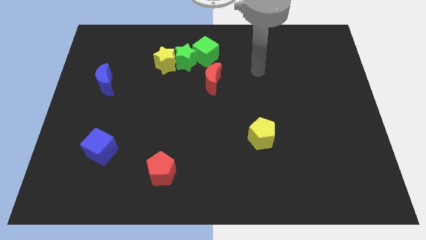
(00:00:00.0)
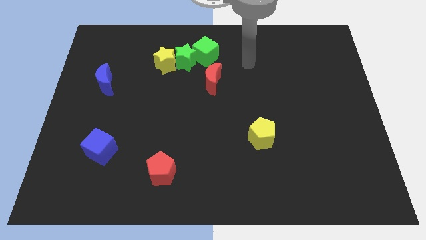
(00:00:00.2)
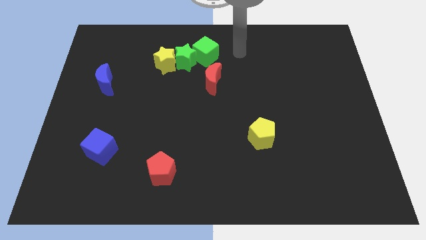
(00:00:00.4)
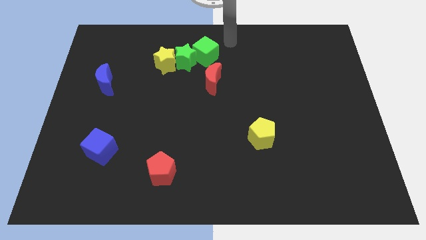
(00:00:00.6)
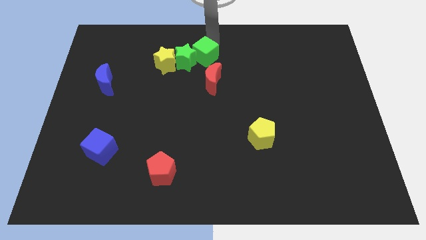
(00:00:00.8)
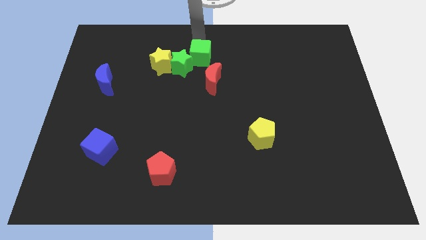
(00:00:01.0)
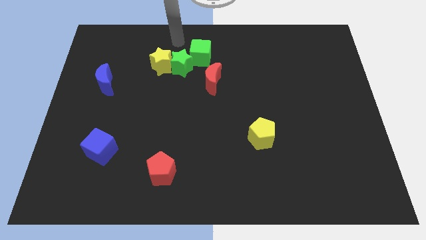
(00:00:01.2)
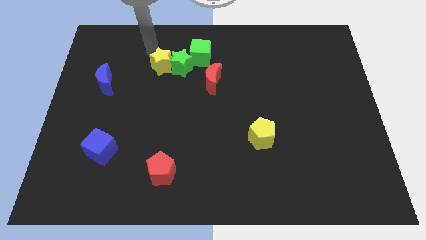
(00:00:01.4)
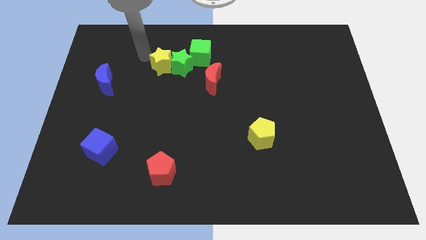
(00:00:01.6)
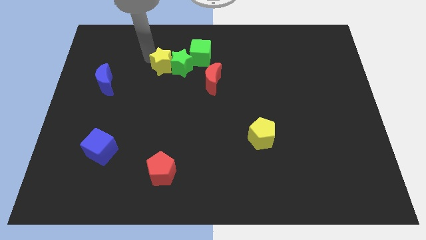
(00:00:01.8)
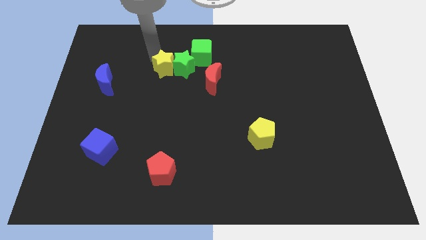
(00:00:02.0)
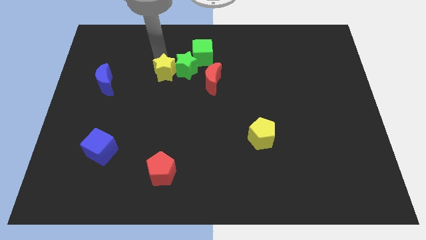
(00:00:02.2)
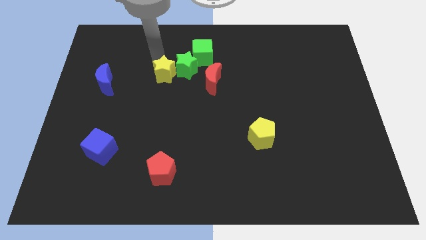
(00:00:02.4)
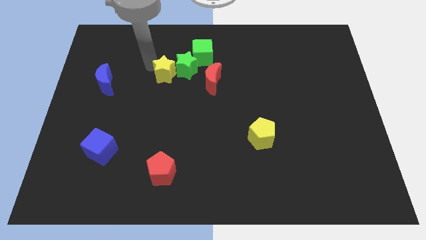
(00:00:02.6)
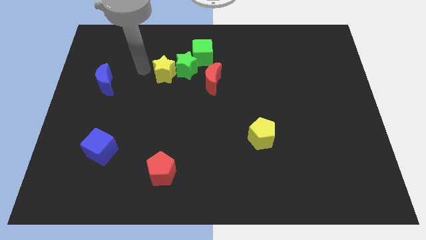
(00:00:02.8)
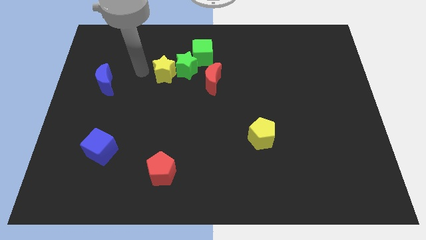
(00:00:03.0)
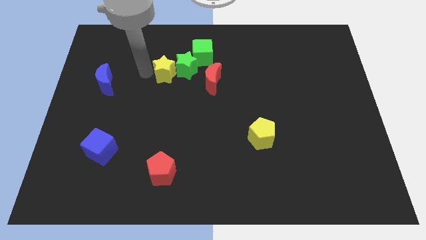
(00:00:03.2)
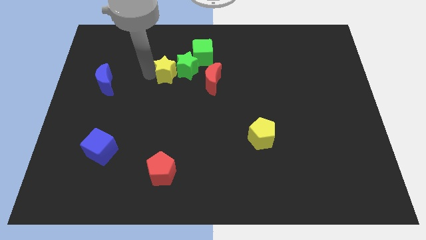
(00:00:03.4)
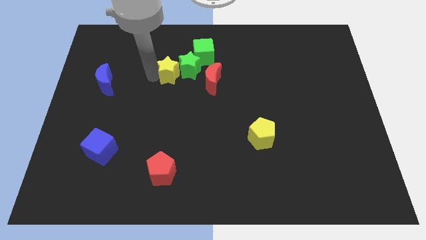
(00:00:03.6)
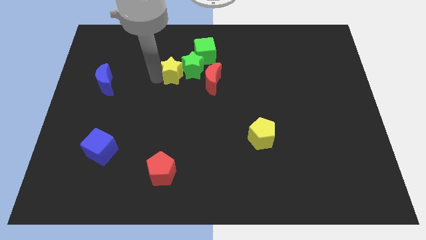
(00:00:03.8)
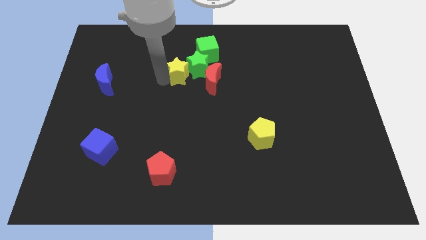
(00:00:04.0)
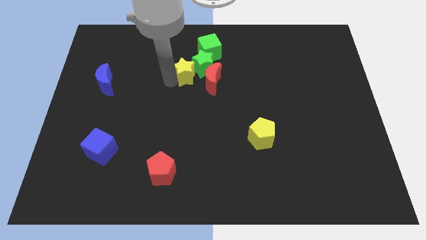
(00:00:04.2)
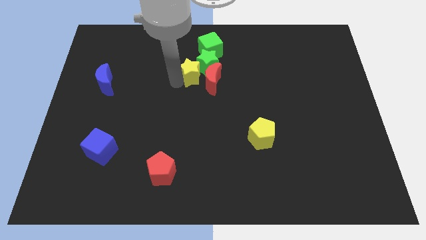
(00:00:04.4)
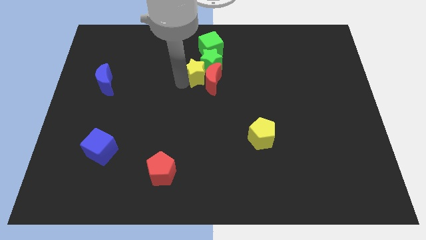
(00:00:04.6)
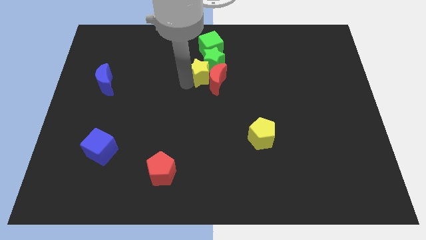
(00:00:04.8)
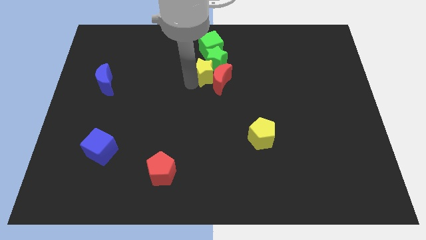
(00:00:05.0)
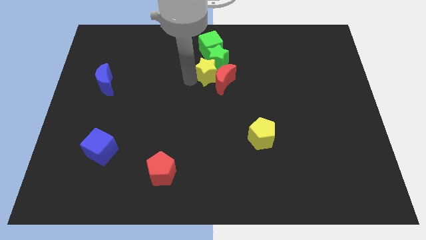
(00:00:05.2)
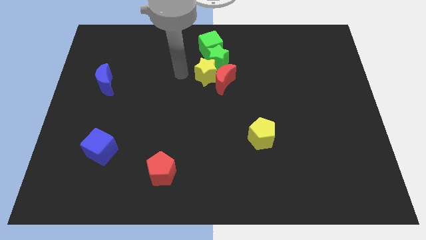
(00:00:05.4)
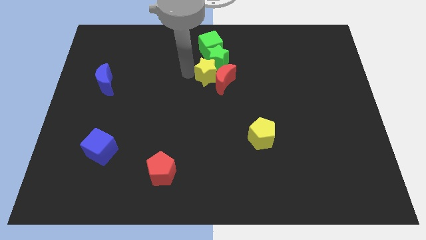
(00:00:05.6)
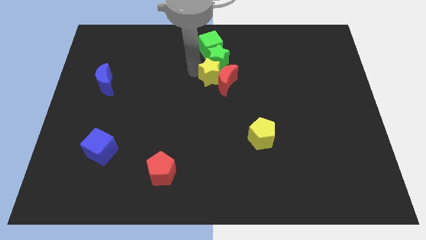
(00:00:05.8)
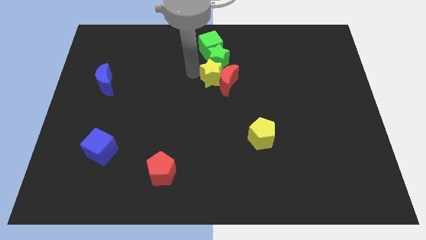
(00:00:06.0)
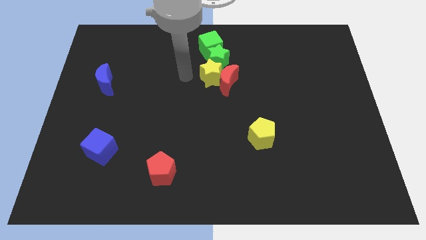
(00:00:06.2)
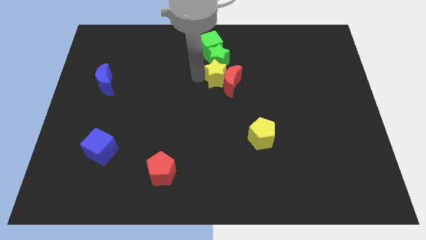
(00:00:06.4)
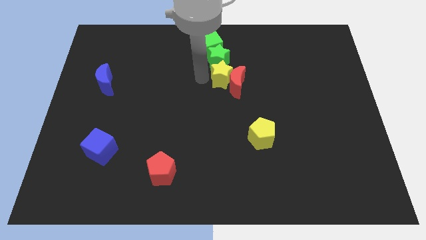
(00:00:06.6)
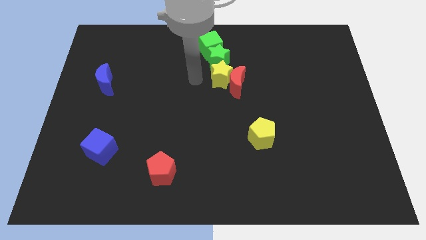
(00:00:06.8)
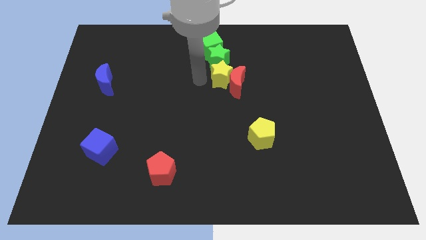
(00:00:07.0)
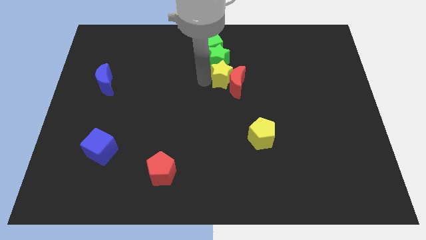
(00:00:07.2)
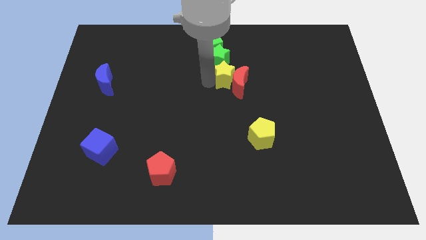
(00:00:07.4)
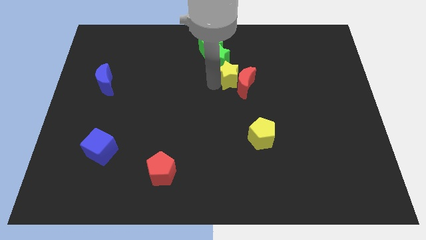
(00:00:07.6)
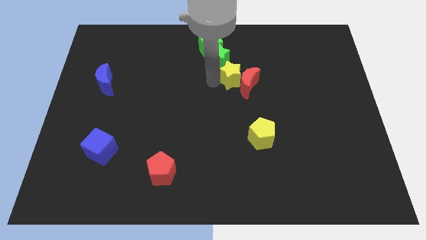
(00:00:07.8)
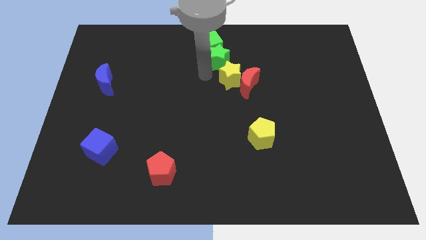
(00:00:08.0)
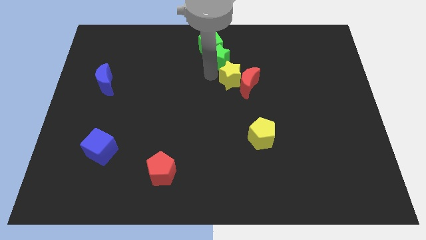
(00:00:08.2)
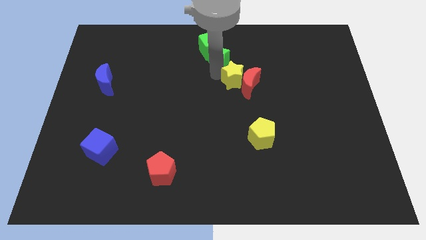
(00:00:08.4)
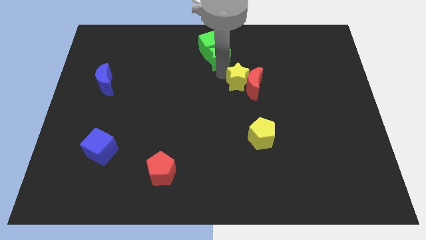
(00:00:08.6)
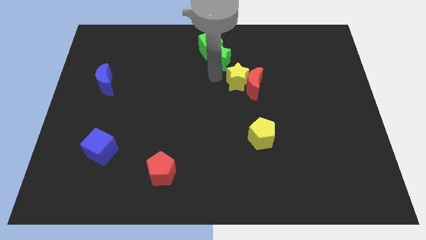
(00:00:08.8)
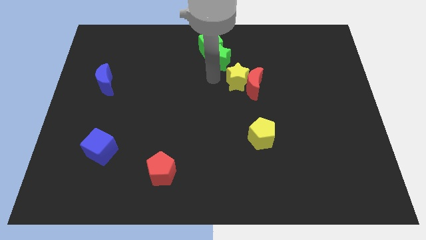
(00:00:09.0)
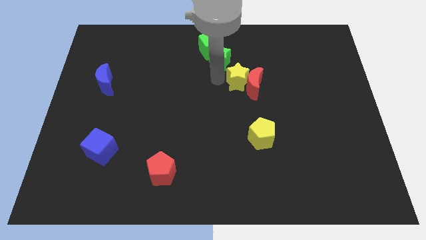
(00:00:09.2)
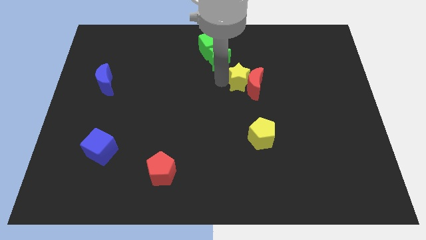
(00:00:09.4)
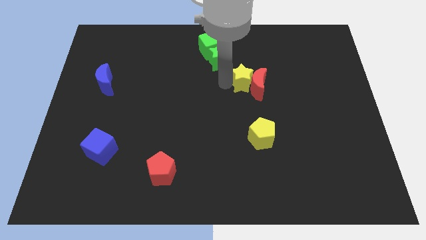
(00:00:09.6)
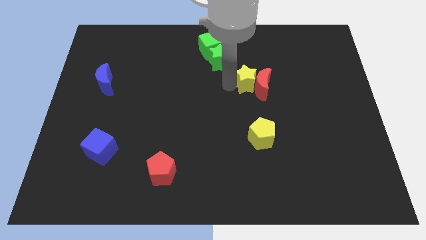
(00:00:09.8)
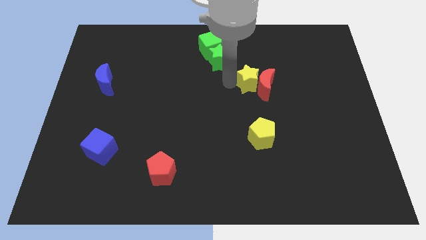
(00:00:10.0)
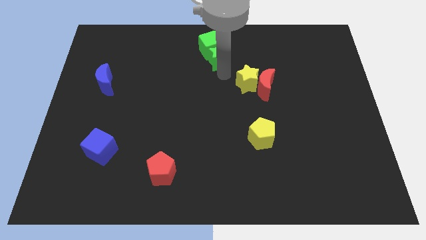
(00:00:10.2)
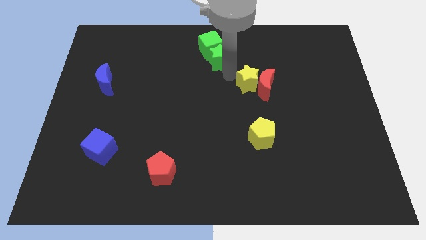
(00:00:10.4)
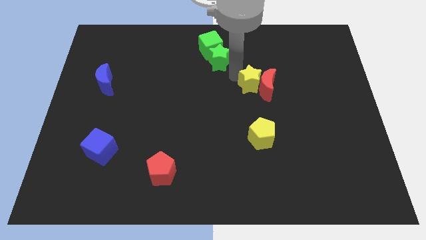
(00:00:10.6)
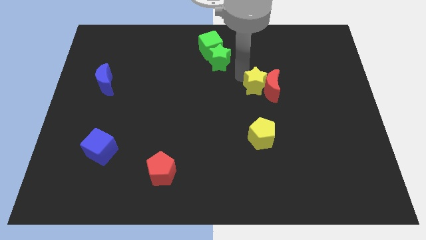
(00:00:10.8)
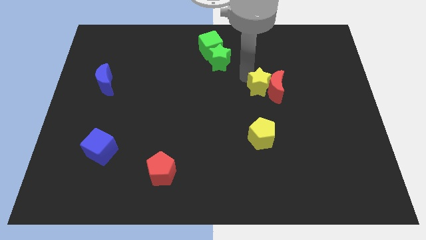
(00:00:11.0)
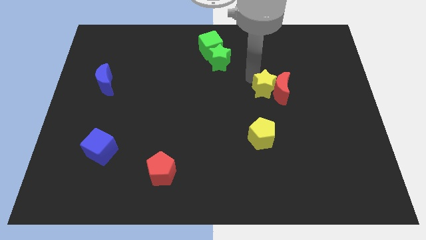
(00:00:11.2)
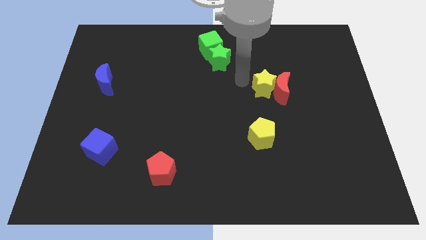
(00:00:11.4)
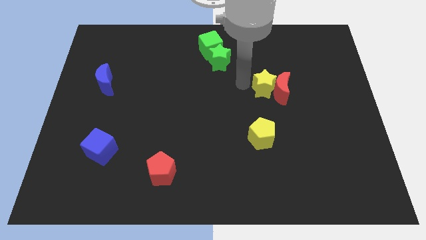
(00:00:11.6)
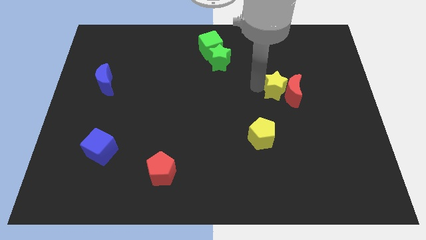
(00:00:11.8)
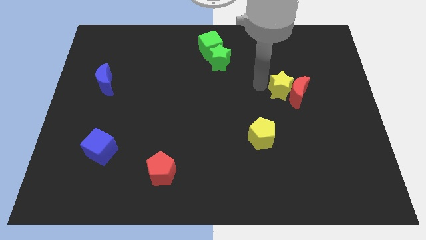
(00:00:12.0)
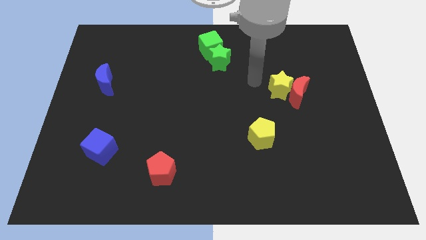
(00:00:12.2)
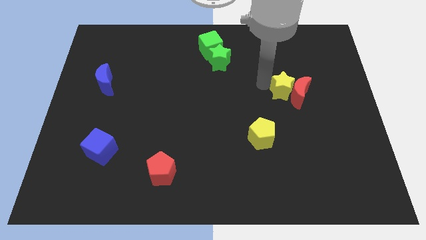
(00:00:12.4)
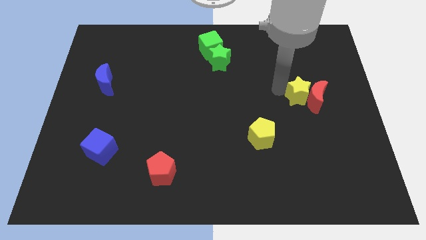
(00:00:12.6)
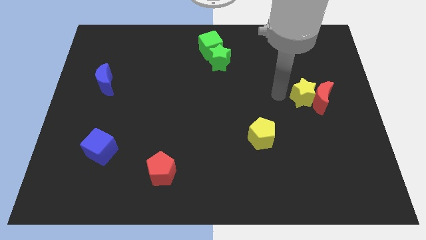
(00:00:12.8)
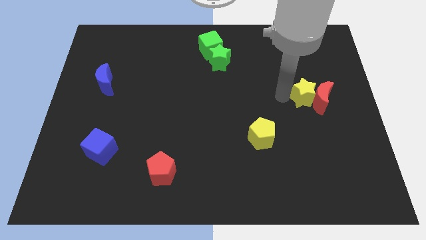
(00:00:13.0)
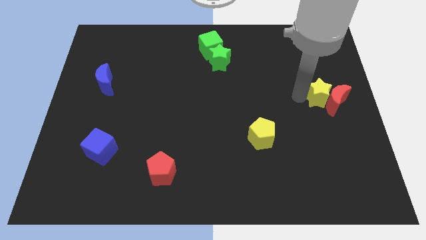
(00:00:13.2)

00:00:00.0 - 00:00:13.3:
move the yellow star to the right side of the board

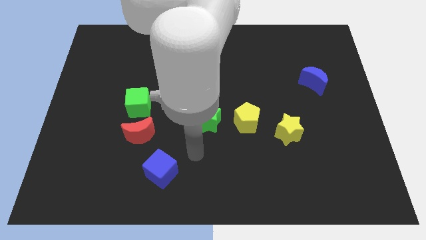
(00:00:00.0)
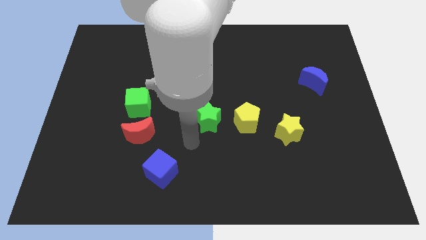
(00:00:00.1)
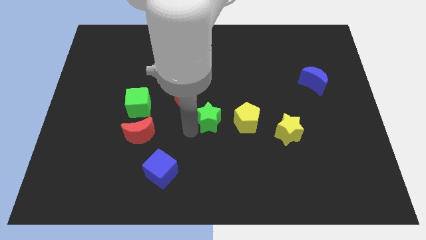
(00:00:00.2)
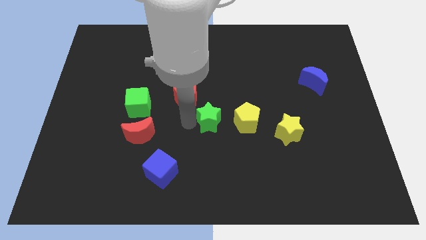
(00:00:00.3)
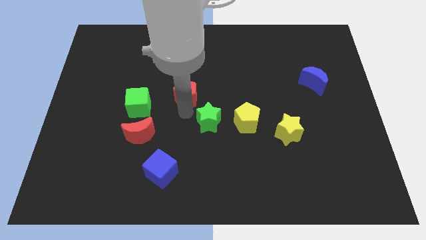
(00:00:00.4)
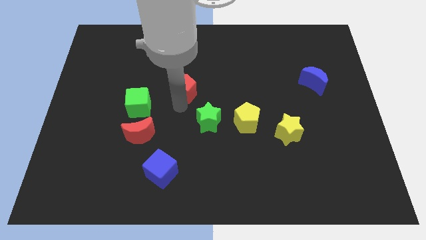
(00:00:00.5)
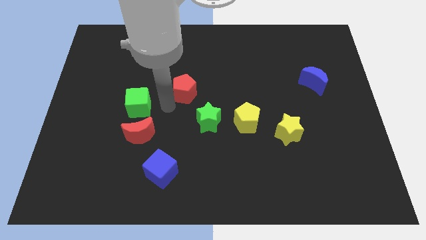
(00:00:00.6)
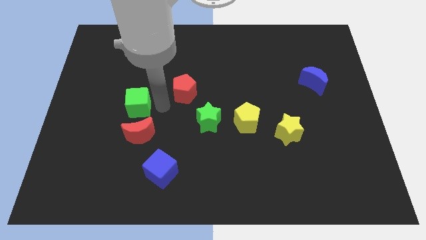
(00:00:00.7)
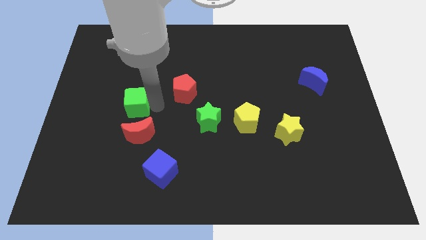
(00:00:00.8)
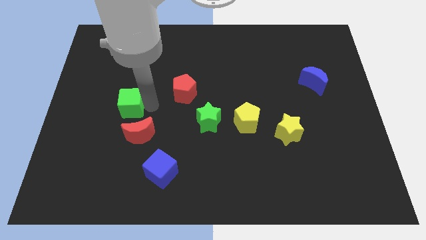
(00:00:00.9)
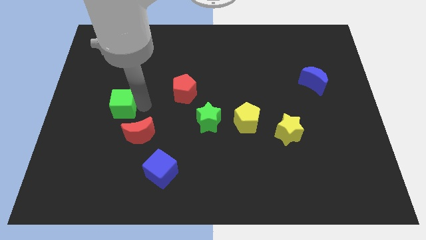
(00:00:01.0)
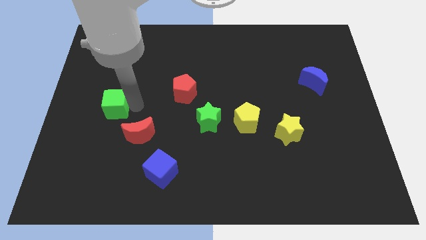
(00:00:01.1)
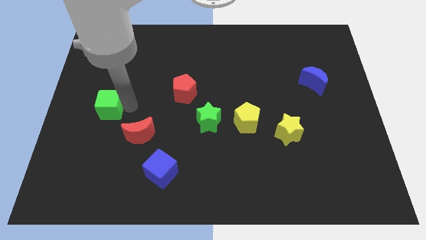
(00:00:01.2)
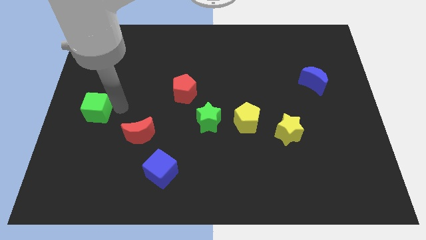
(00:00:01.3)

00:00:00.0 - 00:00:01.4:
slide the green cube to the left side
